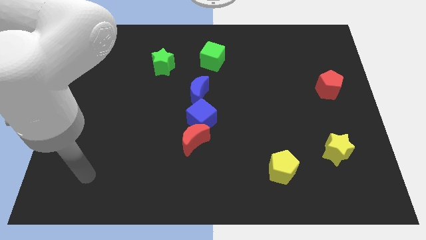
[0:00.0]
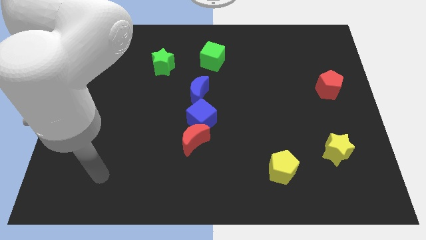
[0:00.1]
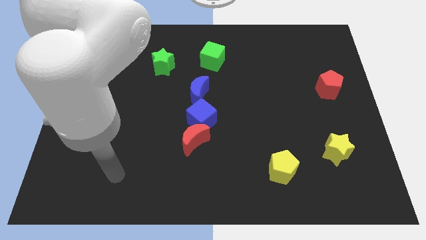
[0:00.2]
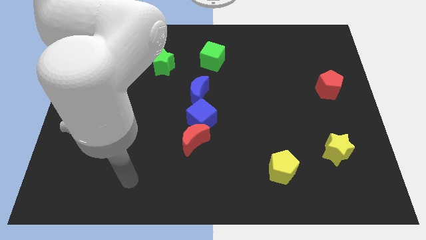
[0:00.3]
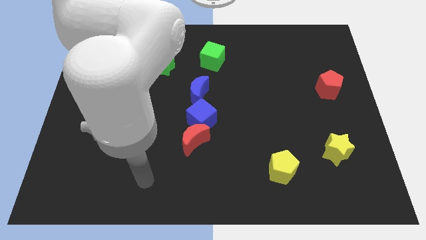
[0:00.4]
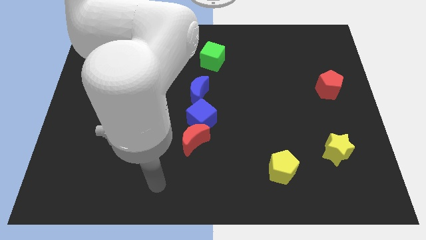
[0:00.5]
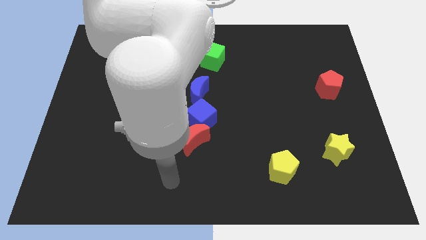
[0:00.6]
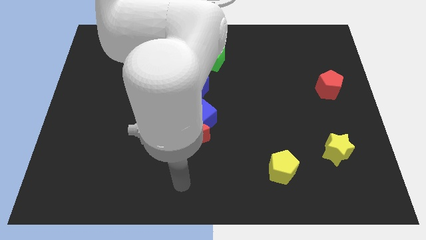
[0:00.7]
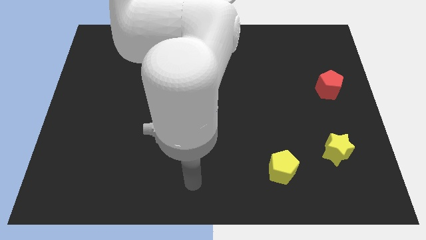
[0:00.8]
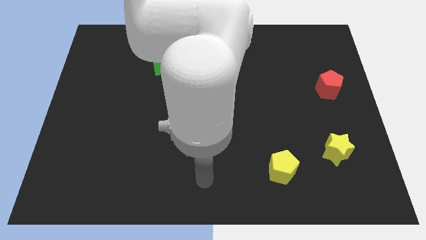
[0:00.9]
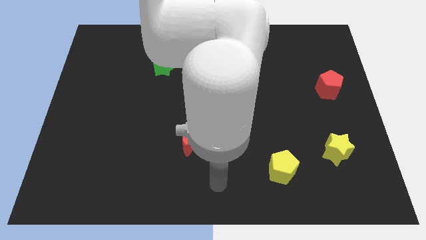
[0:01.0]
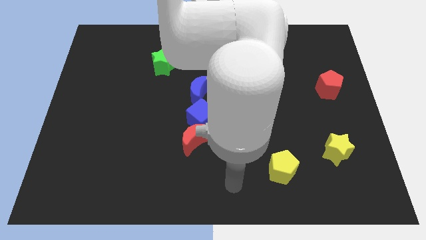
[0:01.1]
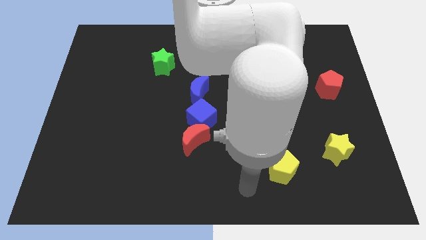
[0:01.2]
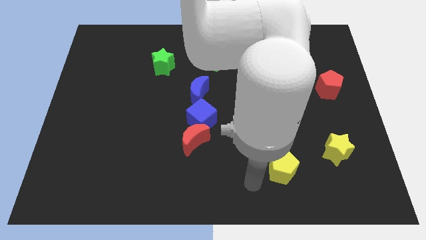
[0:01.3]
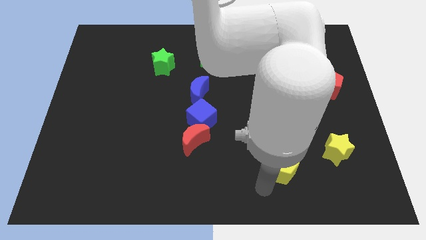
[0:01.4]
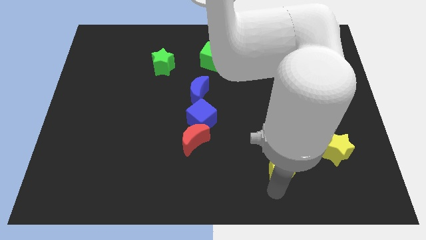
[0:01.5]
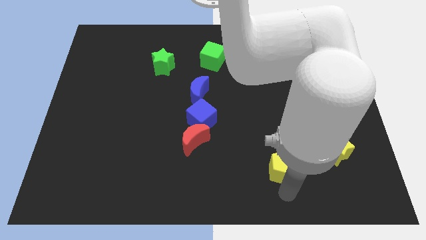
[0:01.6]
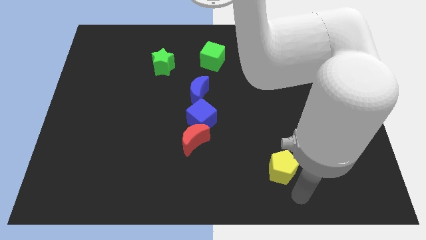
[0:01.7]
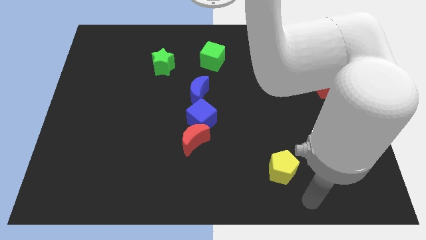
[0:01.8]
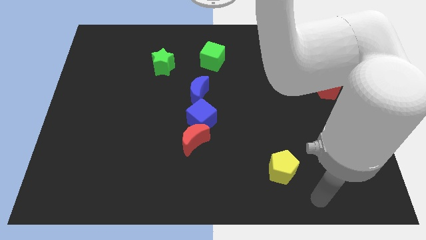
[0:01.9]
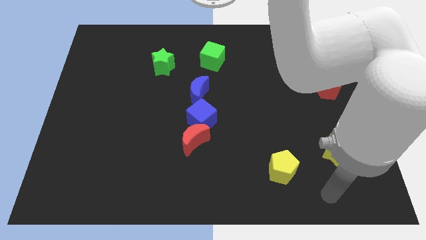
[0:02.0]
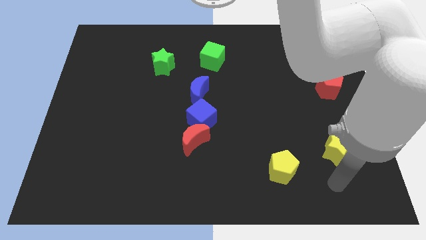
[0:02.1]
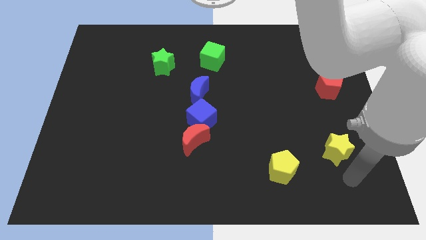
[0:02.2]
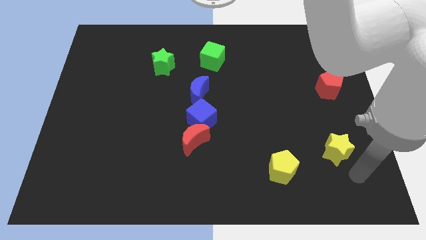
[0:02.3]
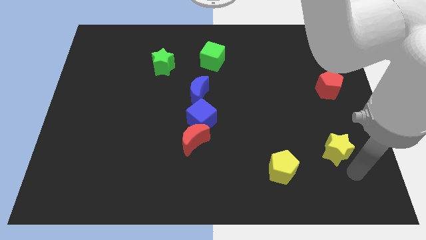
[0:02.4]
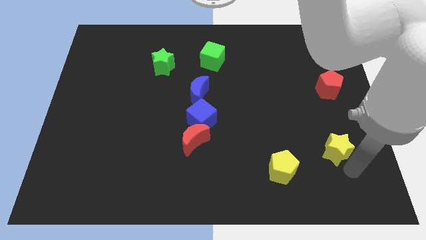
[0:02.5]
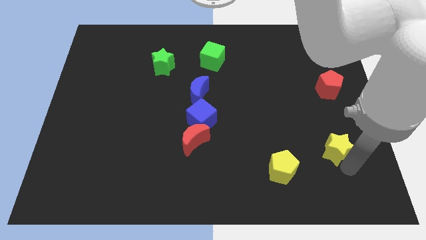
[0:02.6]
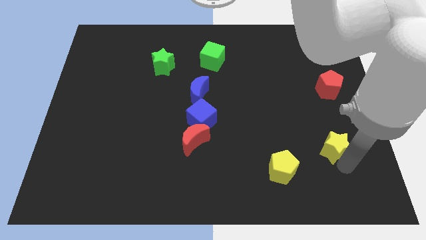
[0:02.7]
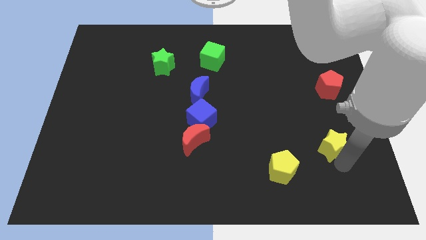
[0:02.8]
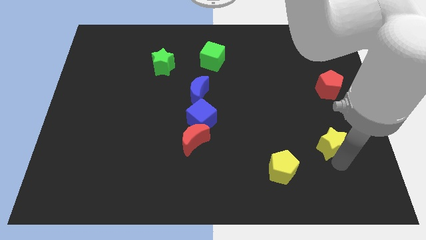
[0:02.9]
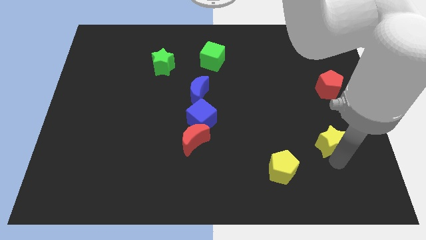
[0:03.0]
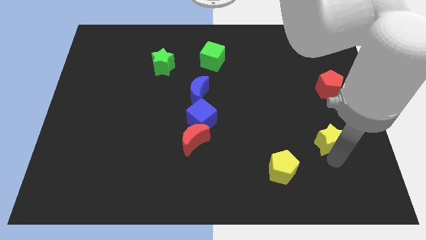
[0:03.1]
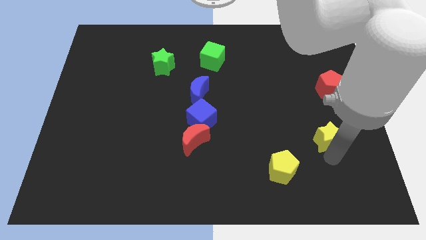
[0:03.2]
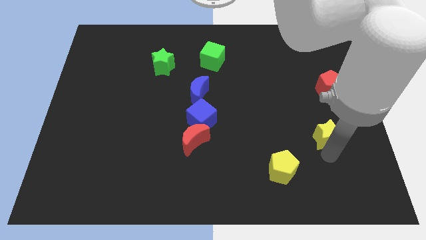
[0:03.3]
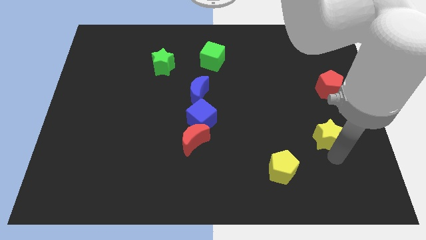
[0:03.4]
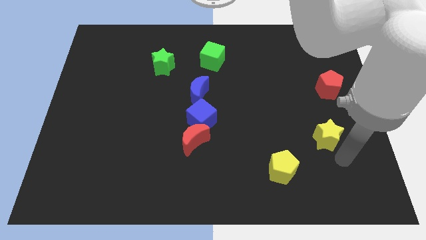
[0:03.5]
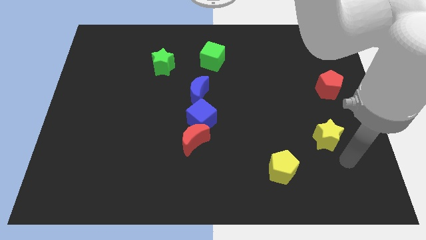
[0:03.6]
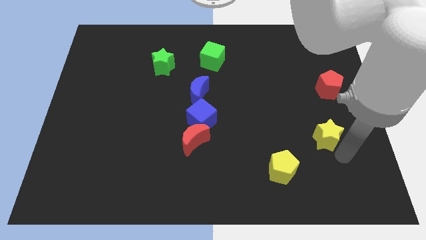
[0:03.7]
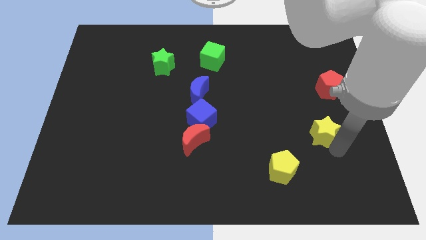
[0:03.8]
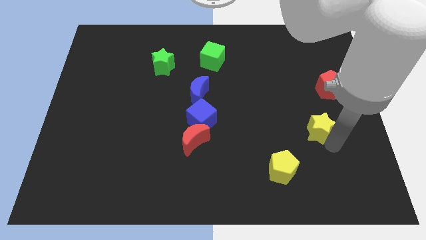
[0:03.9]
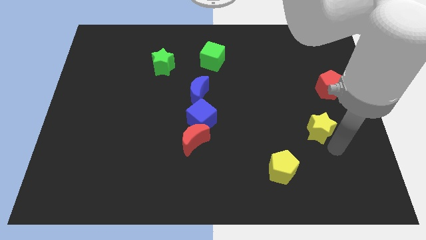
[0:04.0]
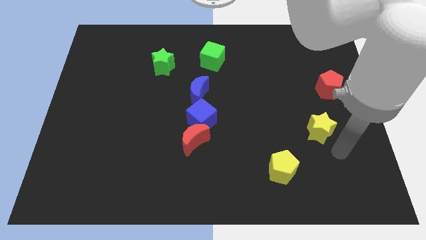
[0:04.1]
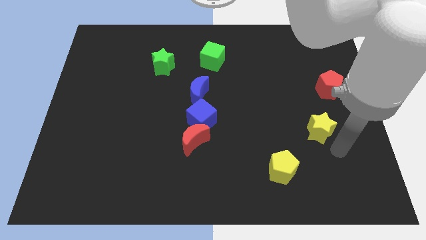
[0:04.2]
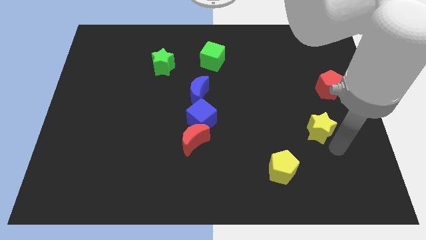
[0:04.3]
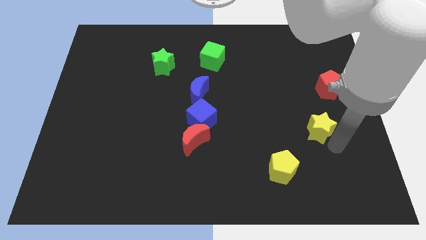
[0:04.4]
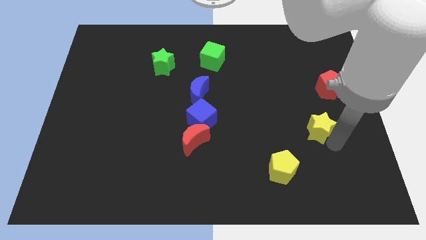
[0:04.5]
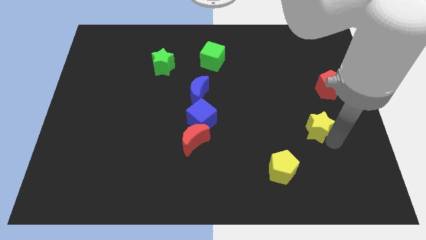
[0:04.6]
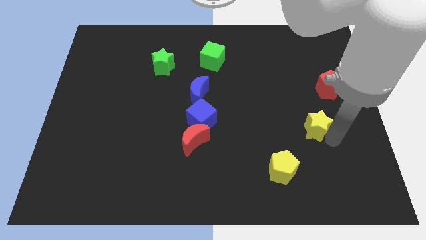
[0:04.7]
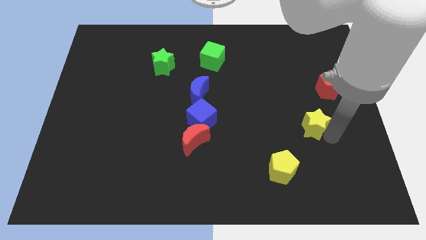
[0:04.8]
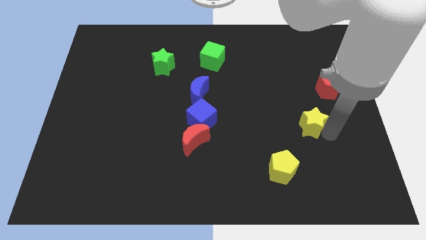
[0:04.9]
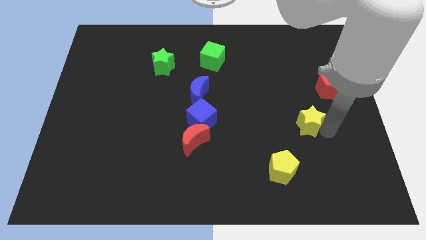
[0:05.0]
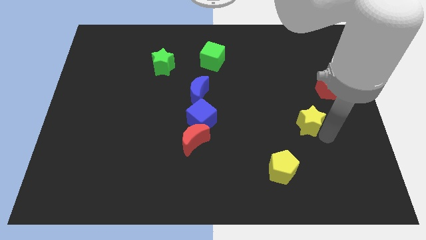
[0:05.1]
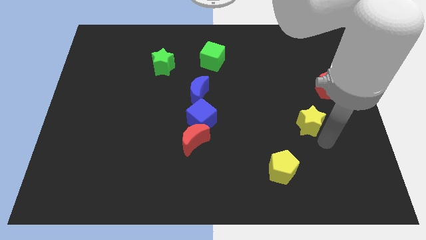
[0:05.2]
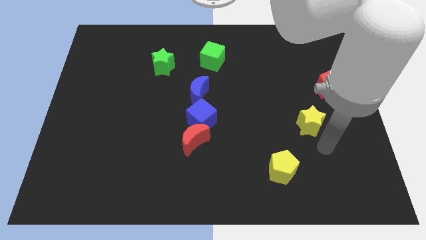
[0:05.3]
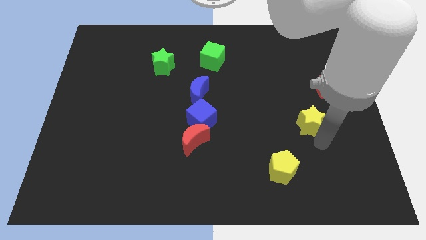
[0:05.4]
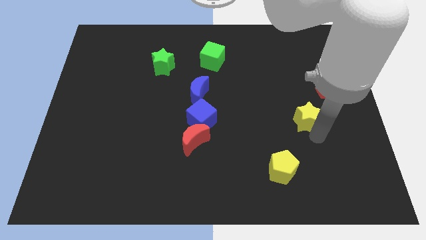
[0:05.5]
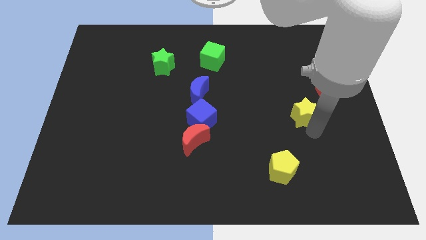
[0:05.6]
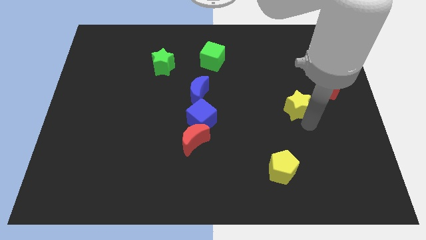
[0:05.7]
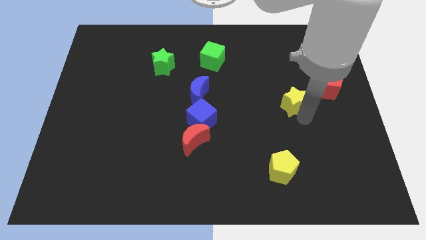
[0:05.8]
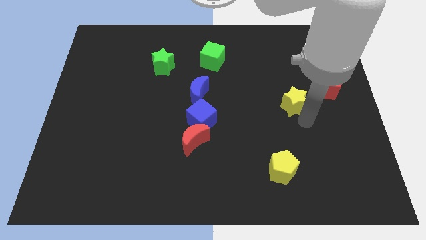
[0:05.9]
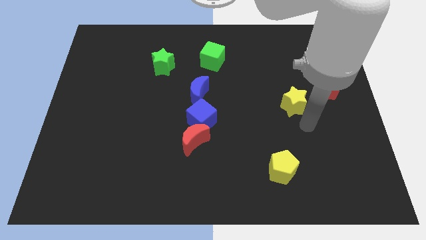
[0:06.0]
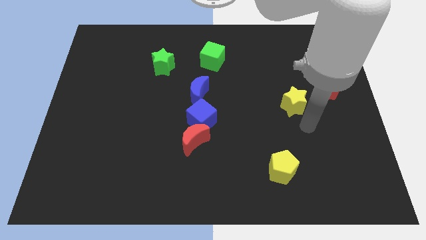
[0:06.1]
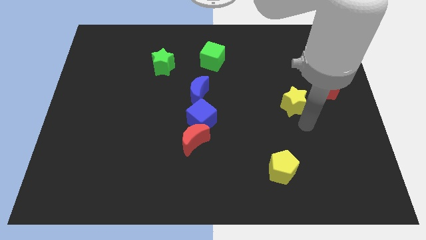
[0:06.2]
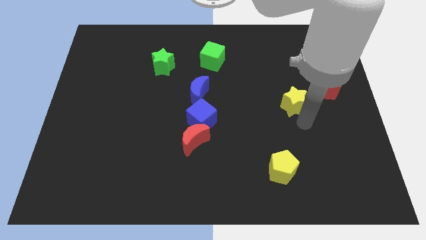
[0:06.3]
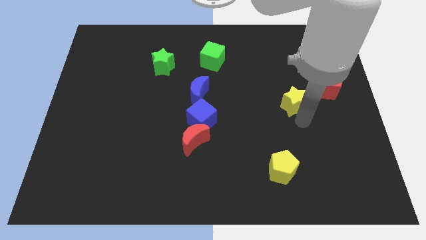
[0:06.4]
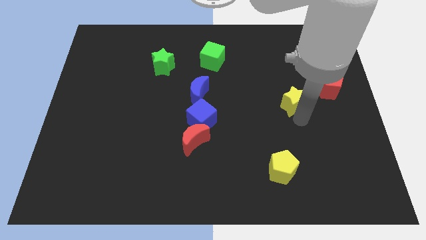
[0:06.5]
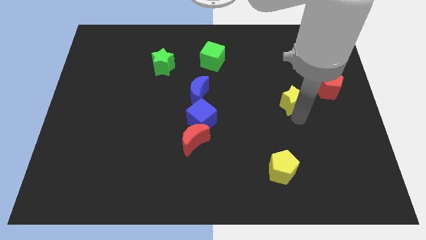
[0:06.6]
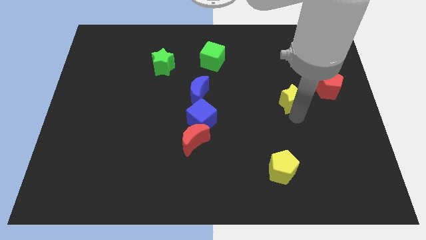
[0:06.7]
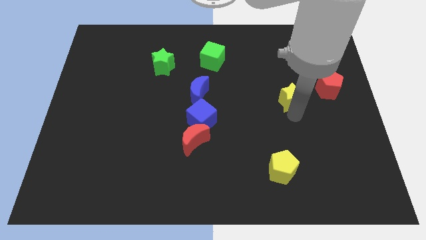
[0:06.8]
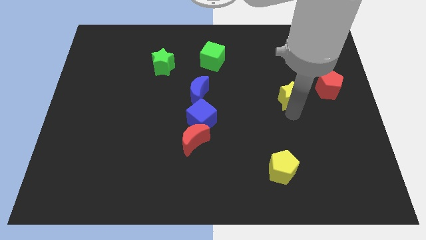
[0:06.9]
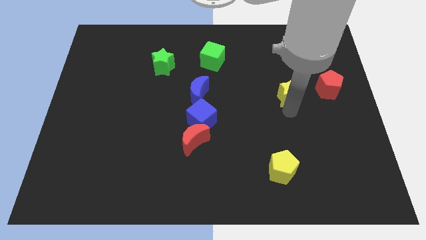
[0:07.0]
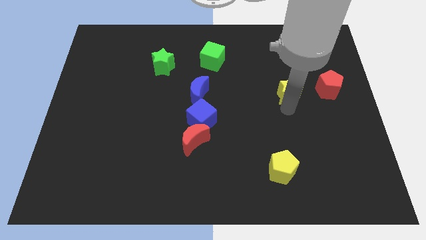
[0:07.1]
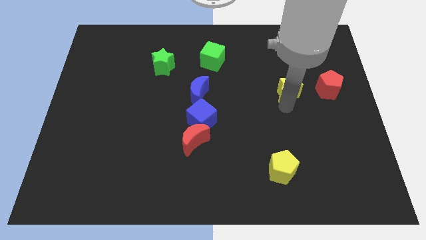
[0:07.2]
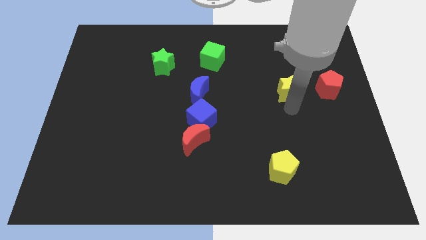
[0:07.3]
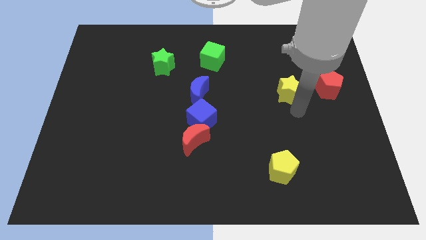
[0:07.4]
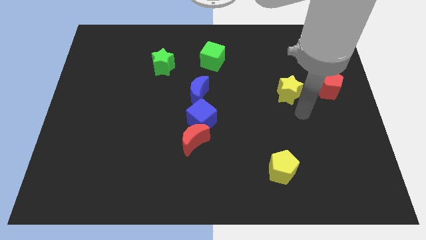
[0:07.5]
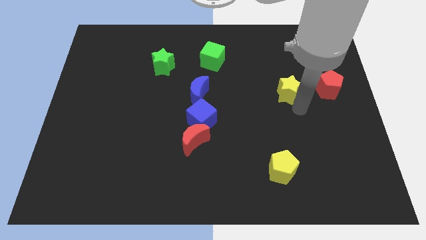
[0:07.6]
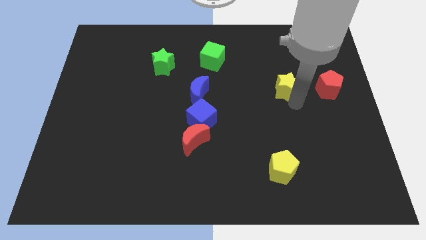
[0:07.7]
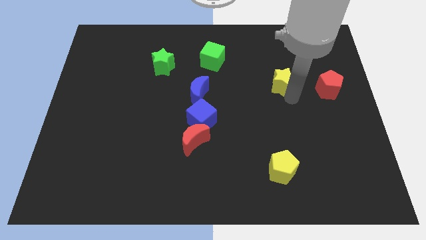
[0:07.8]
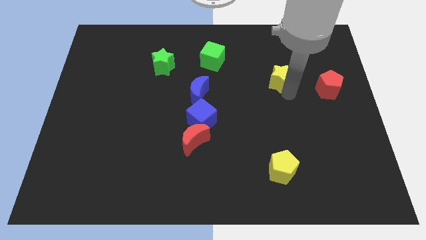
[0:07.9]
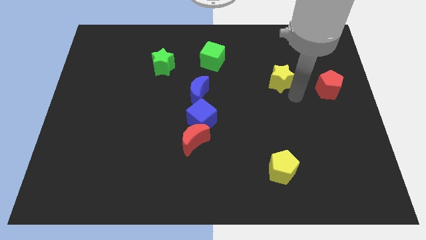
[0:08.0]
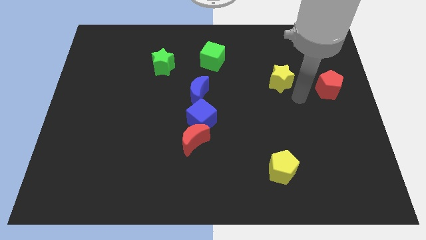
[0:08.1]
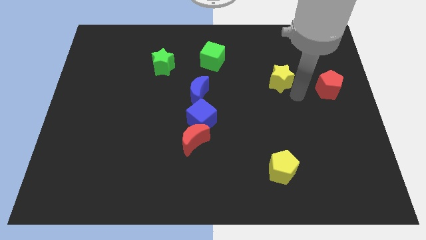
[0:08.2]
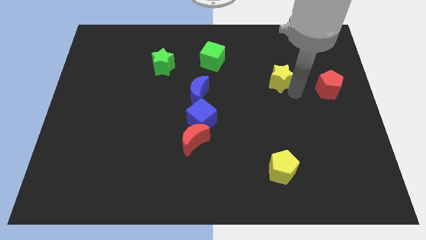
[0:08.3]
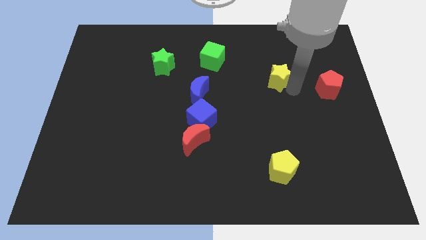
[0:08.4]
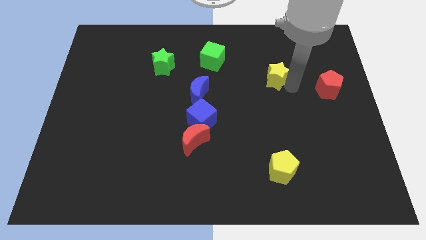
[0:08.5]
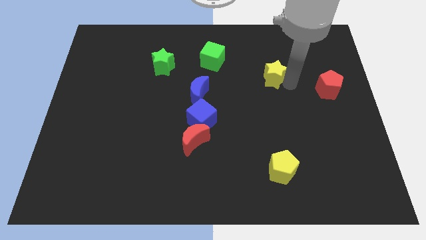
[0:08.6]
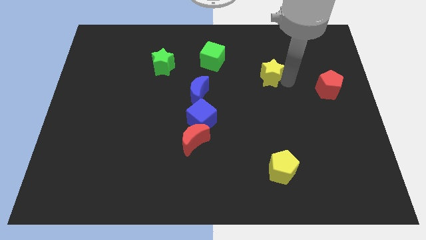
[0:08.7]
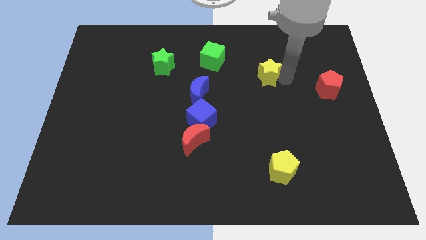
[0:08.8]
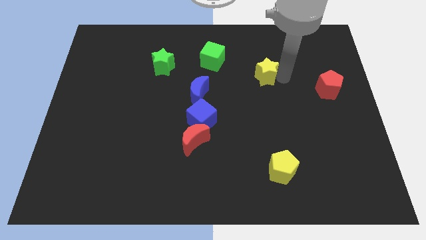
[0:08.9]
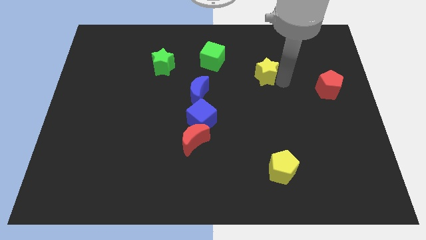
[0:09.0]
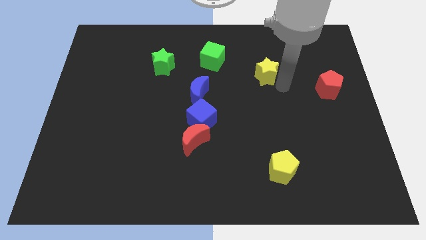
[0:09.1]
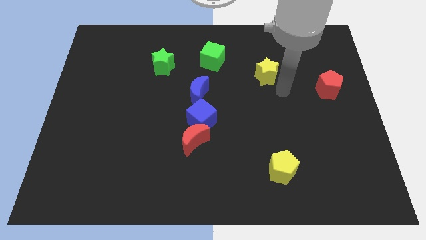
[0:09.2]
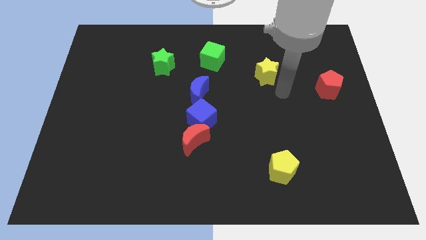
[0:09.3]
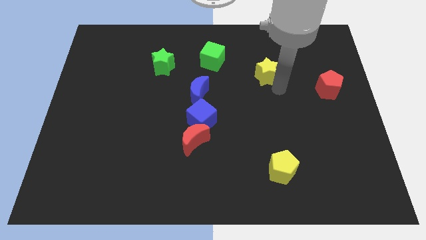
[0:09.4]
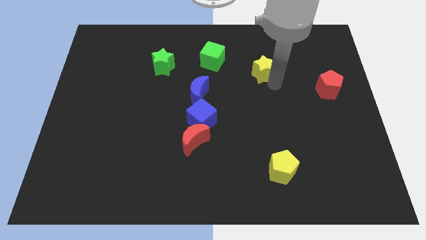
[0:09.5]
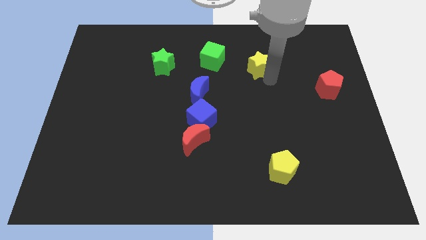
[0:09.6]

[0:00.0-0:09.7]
put the yellow star to the right side of the green cube
